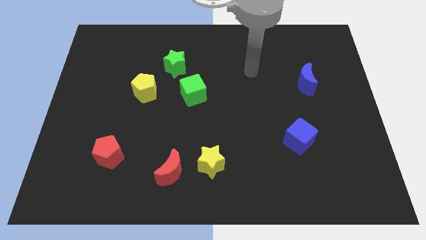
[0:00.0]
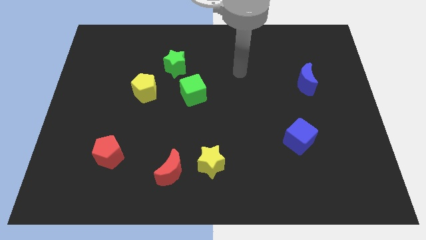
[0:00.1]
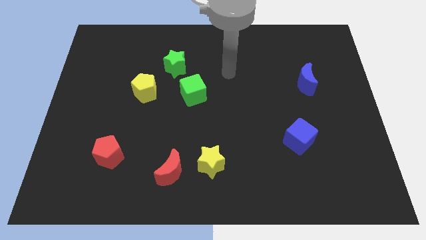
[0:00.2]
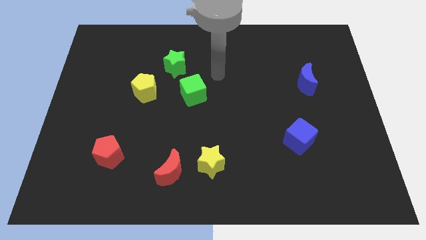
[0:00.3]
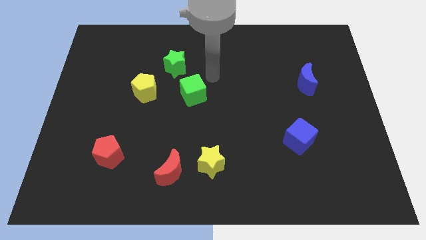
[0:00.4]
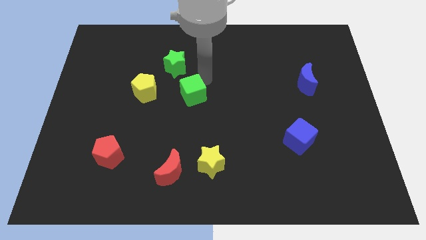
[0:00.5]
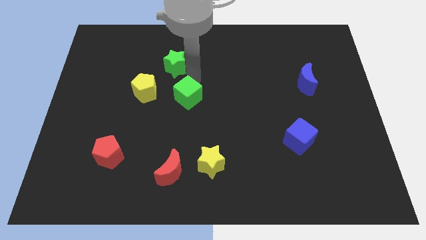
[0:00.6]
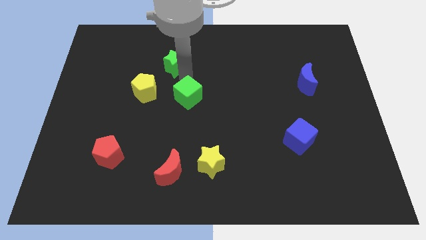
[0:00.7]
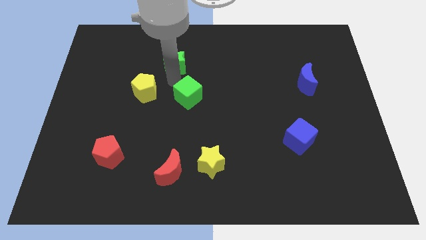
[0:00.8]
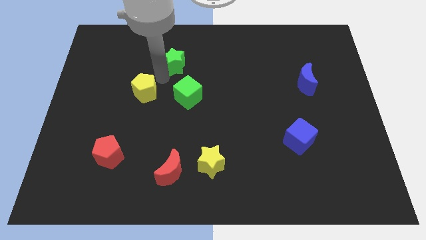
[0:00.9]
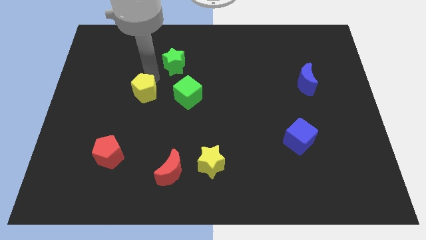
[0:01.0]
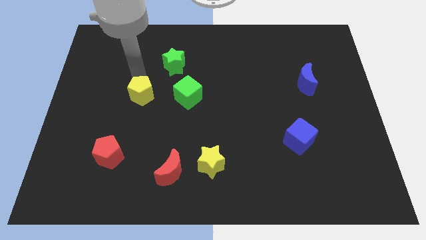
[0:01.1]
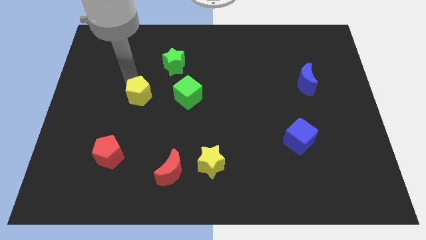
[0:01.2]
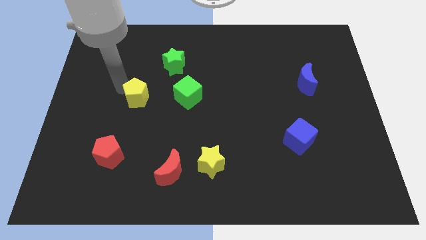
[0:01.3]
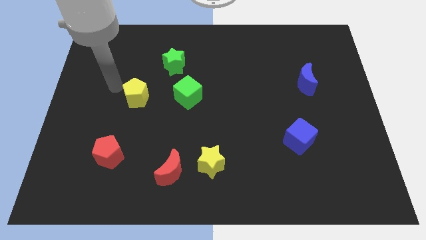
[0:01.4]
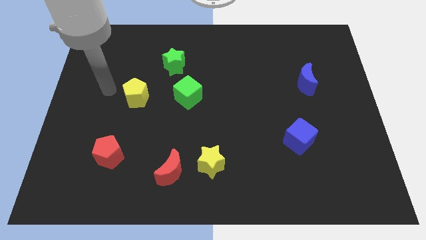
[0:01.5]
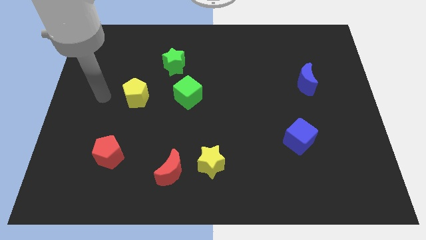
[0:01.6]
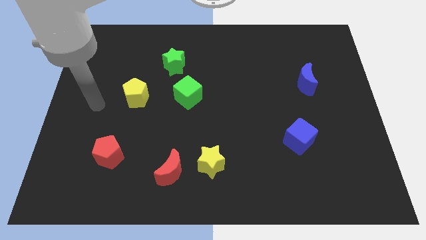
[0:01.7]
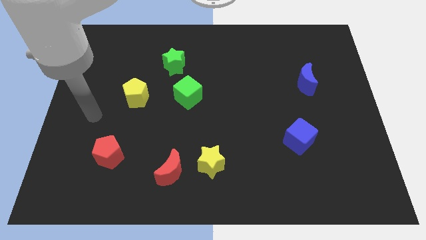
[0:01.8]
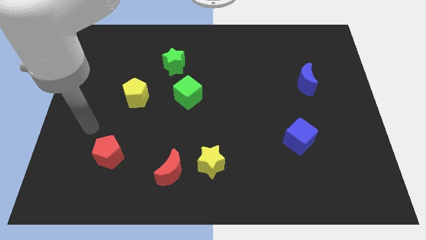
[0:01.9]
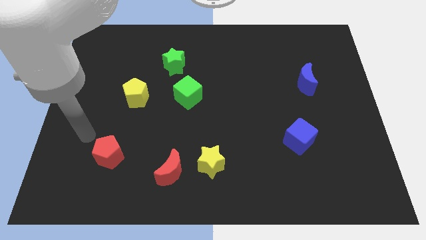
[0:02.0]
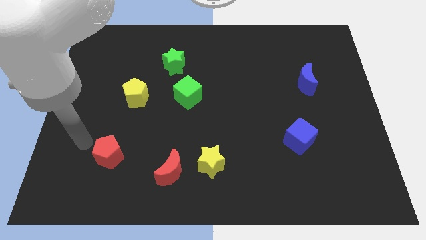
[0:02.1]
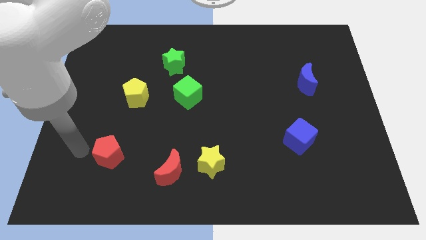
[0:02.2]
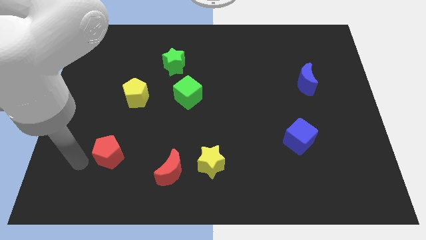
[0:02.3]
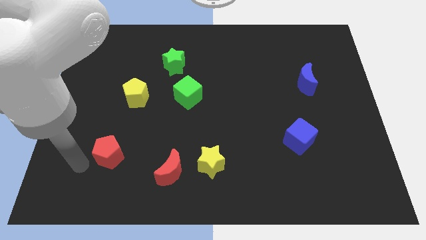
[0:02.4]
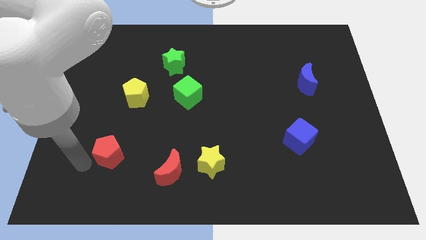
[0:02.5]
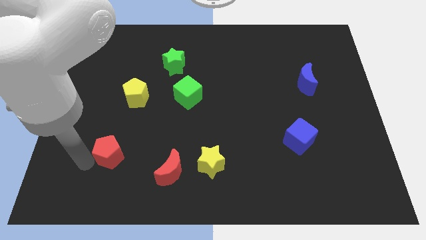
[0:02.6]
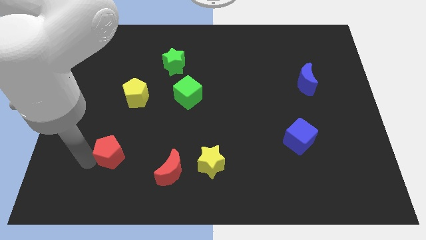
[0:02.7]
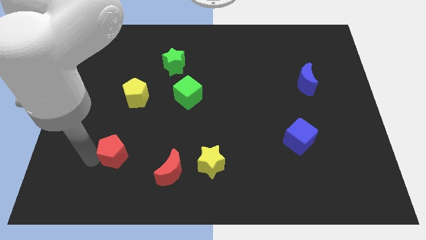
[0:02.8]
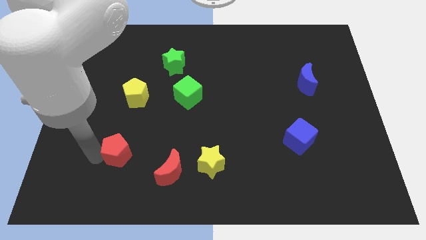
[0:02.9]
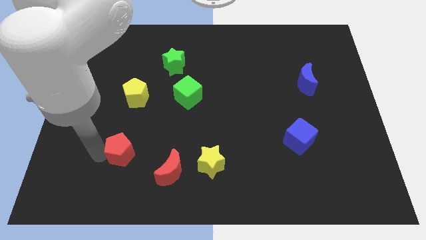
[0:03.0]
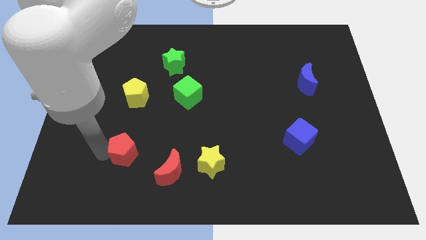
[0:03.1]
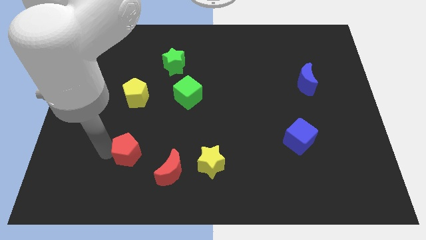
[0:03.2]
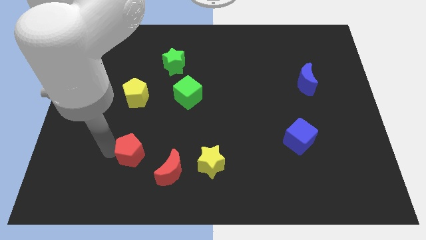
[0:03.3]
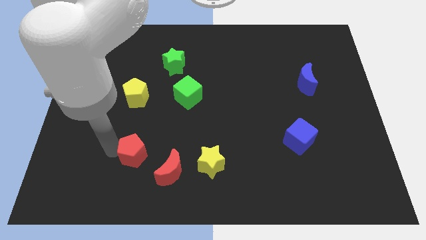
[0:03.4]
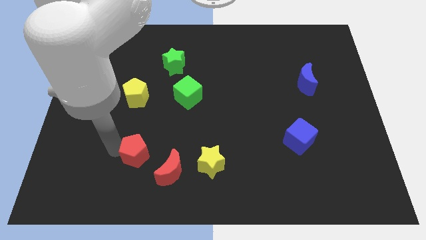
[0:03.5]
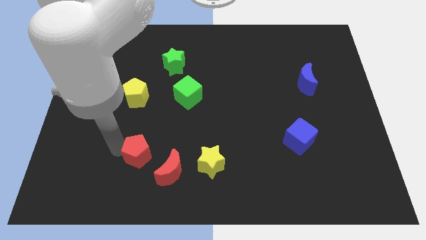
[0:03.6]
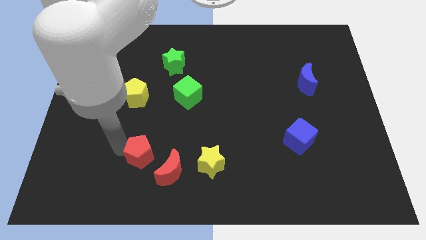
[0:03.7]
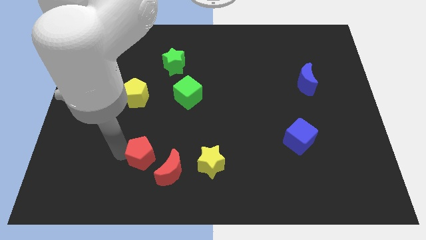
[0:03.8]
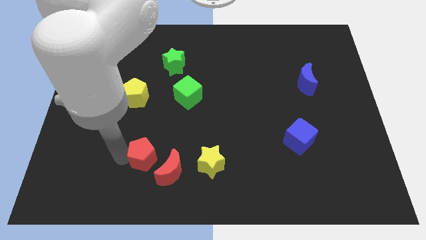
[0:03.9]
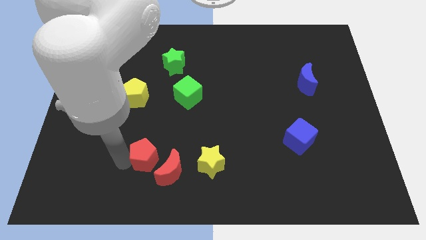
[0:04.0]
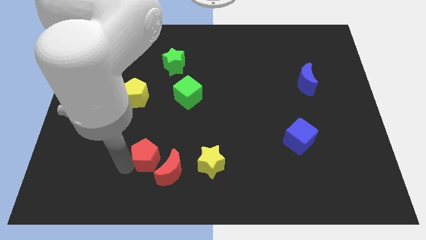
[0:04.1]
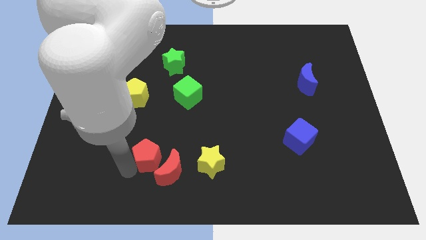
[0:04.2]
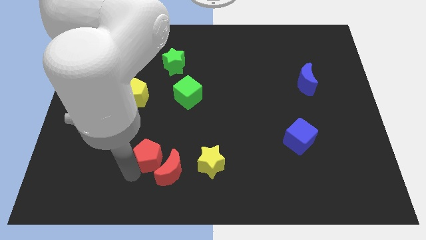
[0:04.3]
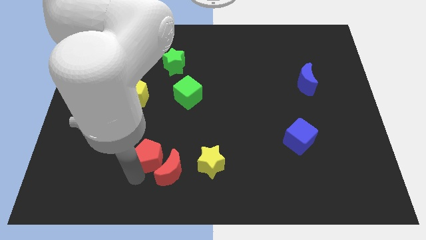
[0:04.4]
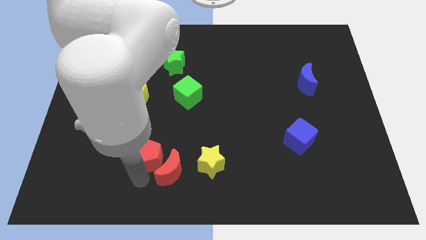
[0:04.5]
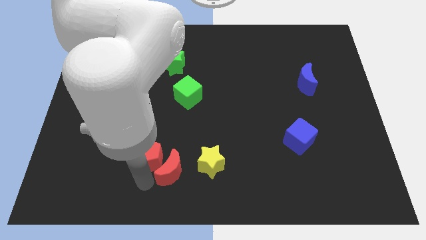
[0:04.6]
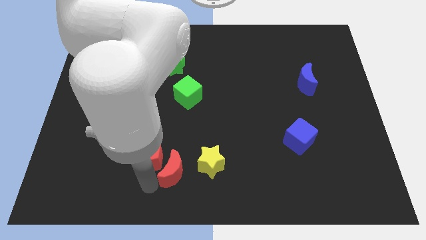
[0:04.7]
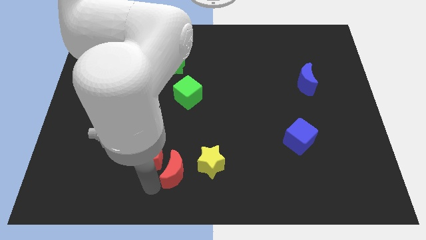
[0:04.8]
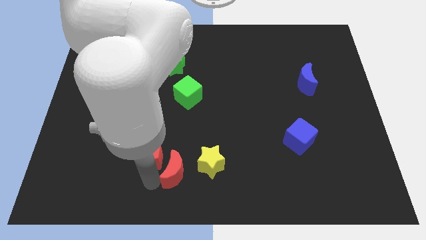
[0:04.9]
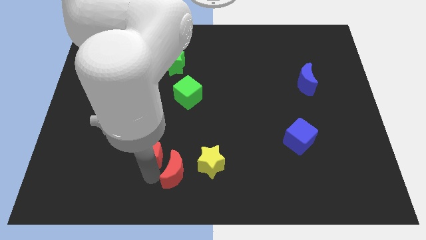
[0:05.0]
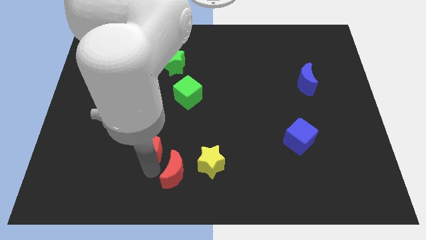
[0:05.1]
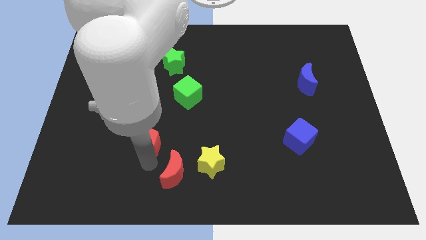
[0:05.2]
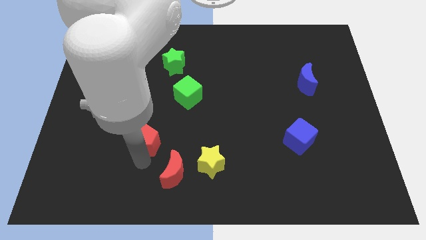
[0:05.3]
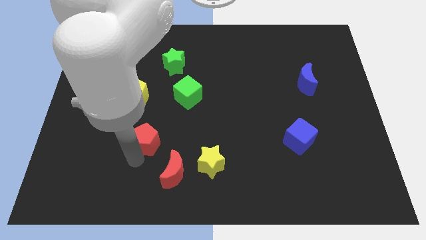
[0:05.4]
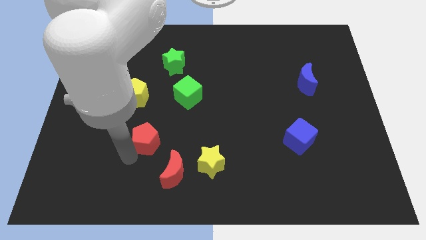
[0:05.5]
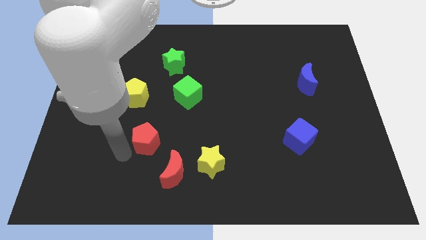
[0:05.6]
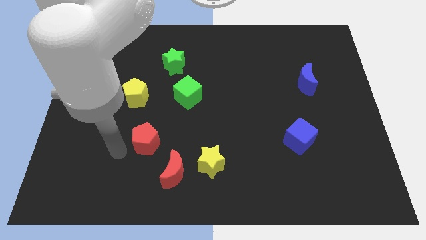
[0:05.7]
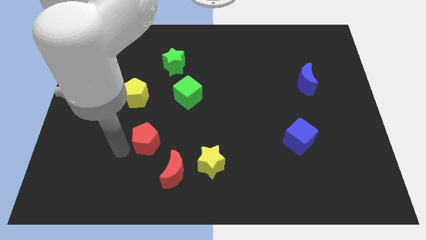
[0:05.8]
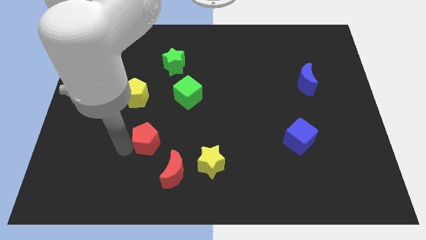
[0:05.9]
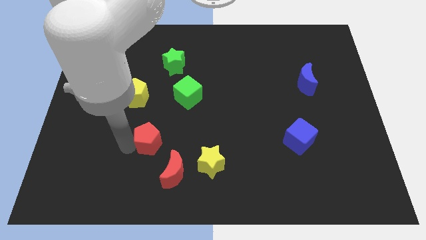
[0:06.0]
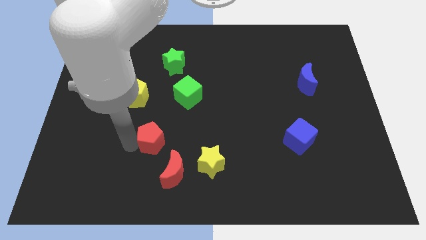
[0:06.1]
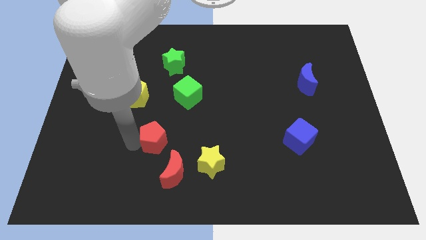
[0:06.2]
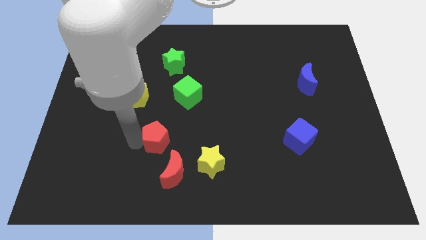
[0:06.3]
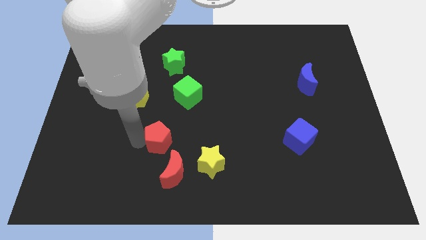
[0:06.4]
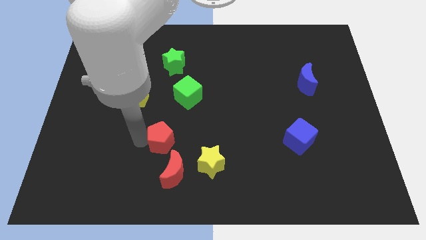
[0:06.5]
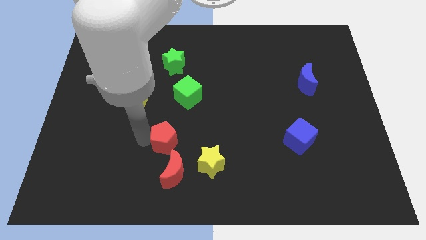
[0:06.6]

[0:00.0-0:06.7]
move the red pentagon to the bottom side of the green cube

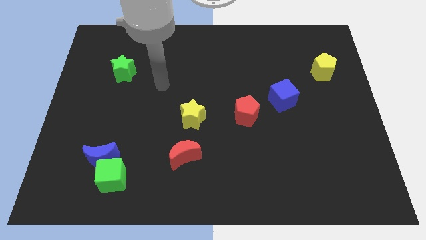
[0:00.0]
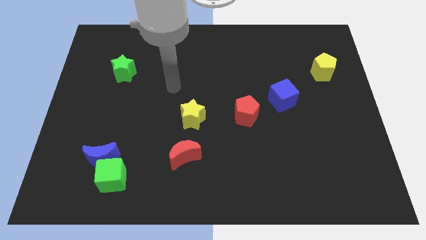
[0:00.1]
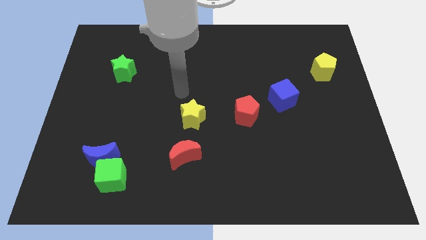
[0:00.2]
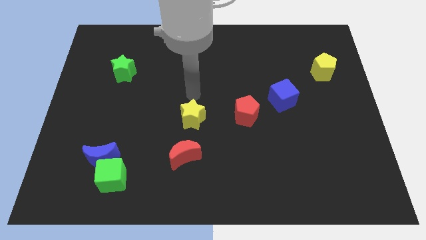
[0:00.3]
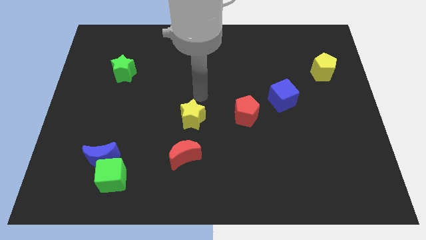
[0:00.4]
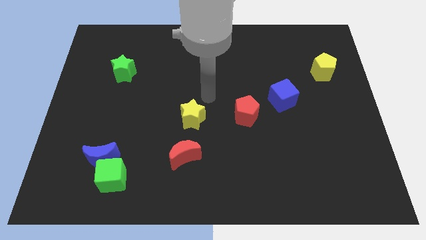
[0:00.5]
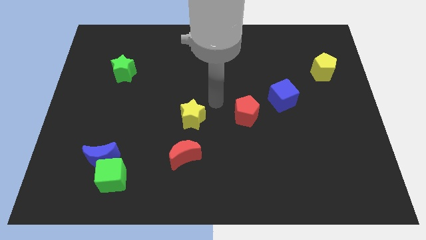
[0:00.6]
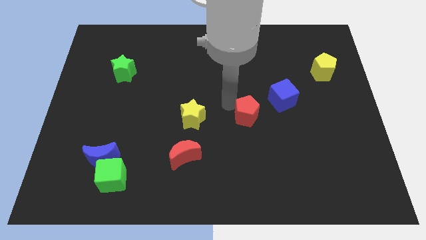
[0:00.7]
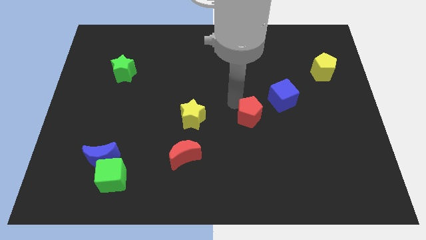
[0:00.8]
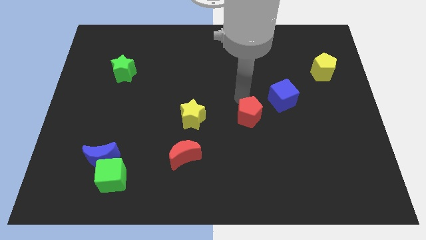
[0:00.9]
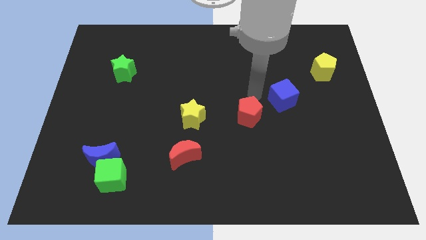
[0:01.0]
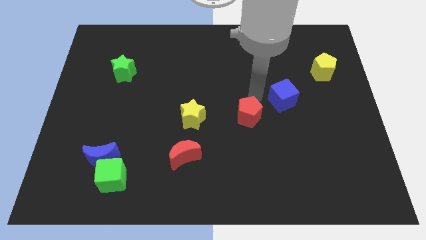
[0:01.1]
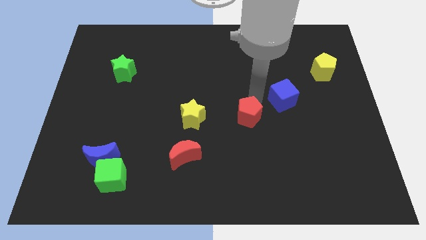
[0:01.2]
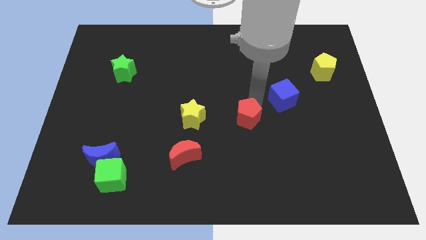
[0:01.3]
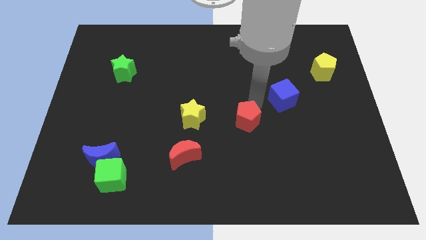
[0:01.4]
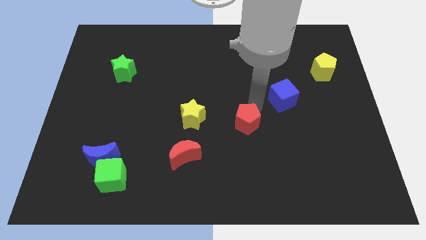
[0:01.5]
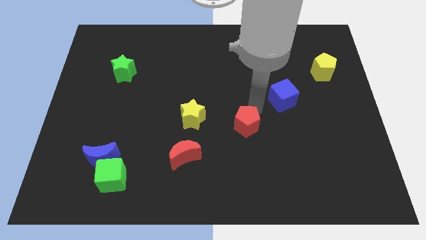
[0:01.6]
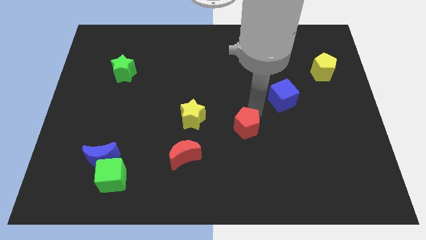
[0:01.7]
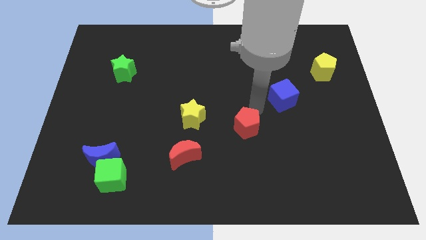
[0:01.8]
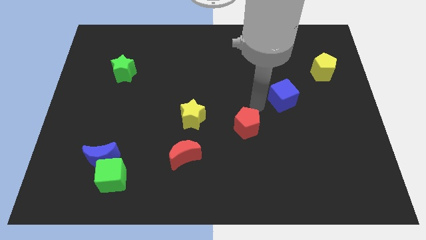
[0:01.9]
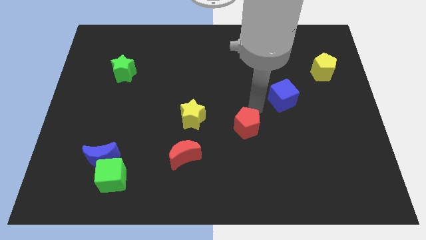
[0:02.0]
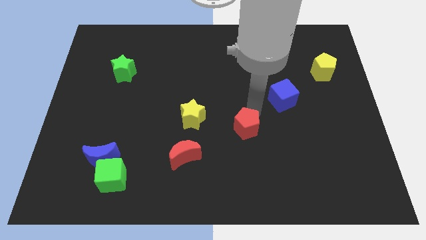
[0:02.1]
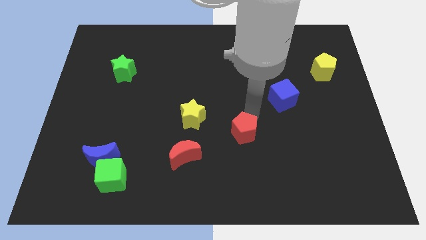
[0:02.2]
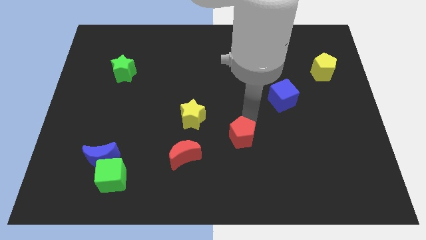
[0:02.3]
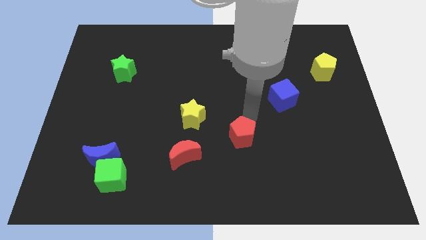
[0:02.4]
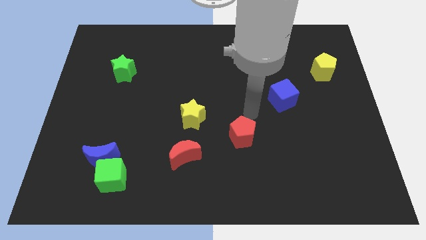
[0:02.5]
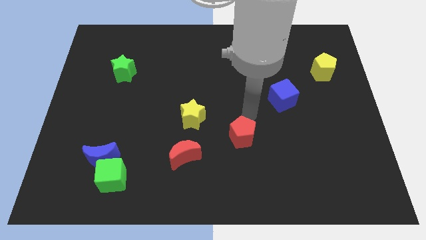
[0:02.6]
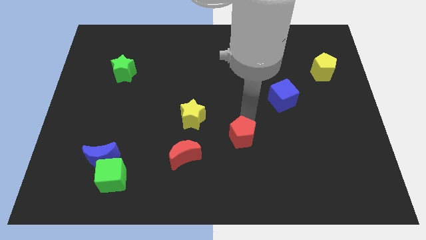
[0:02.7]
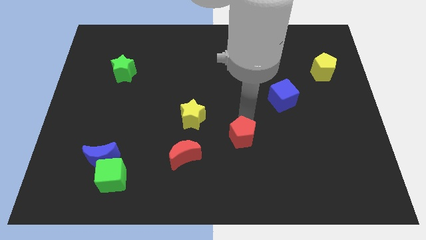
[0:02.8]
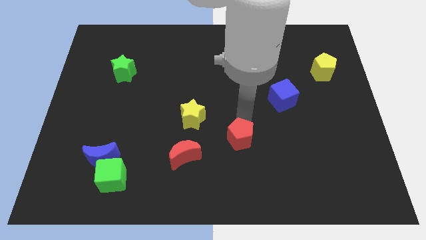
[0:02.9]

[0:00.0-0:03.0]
move the red pentagon right of the red moon
